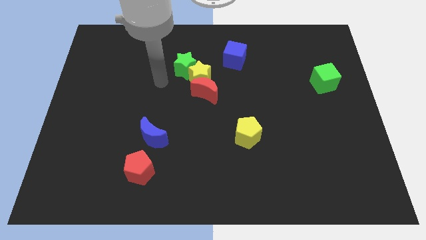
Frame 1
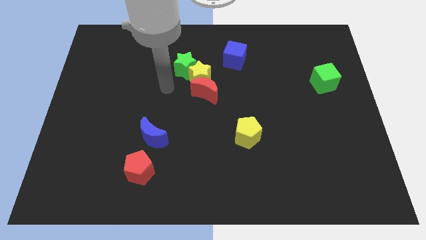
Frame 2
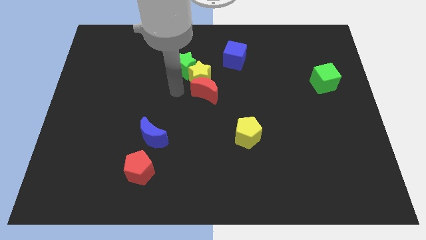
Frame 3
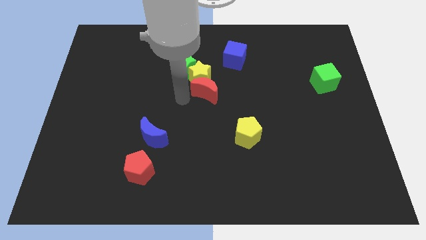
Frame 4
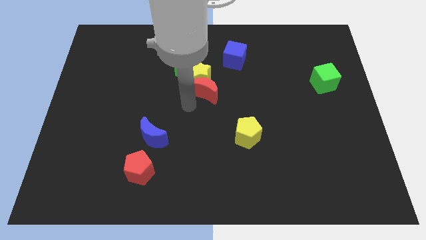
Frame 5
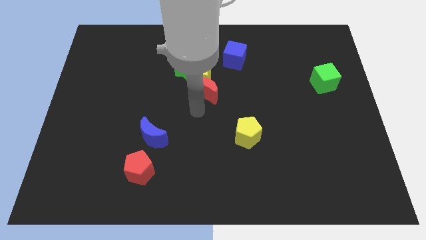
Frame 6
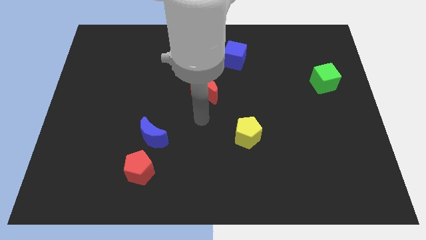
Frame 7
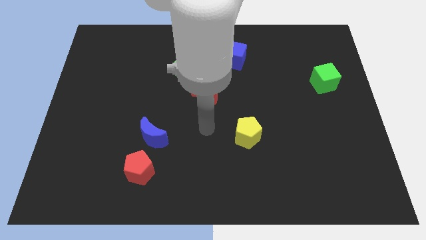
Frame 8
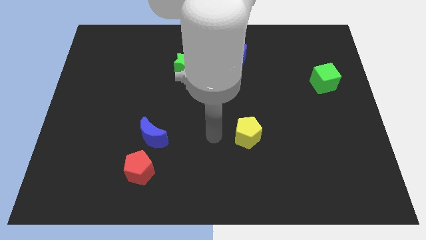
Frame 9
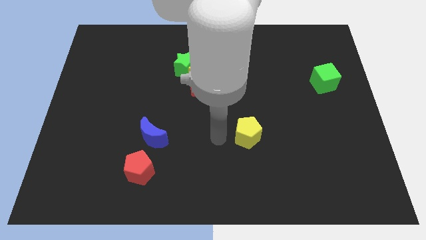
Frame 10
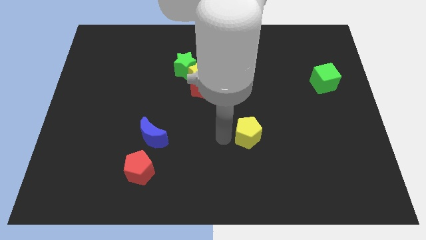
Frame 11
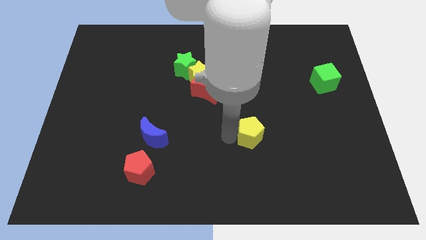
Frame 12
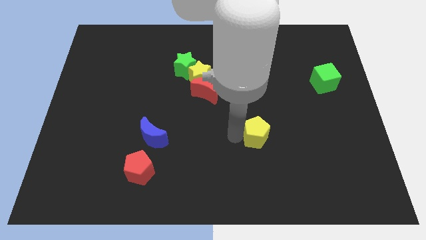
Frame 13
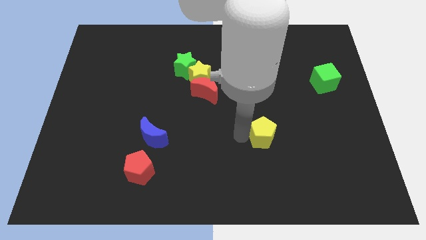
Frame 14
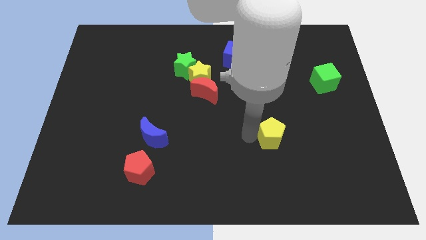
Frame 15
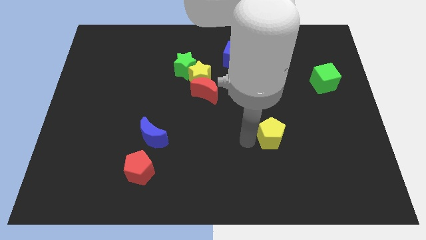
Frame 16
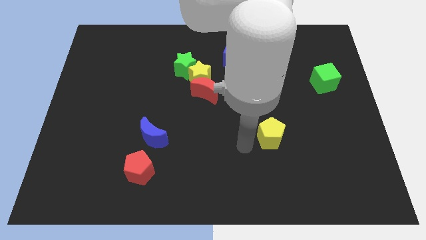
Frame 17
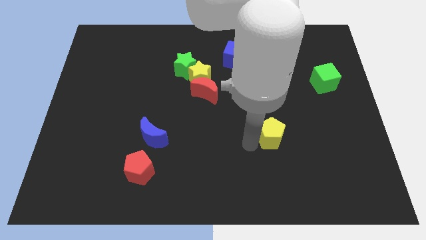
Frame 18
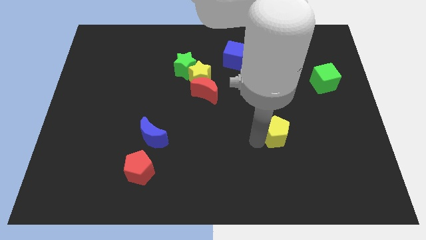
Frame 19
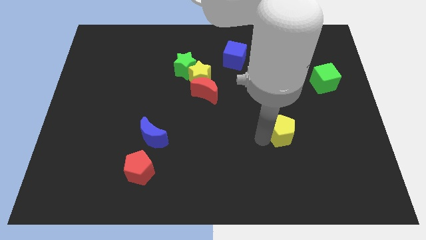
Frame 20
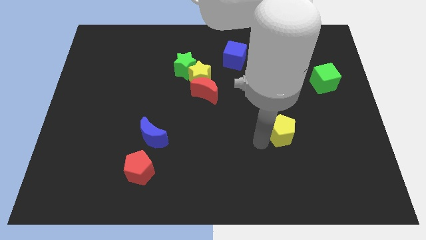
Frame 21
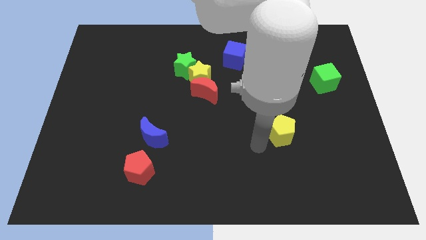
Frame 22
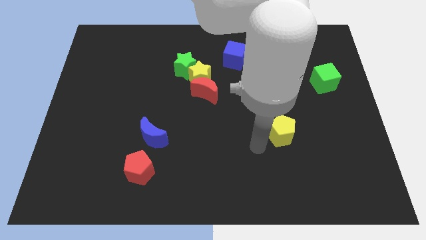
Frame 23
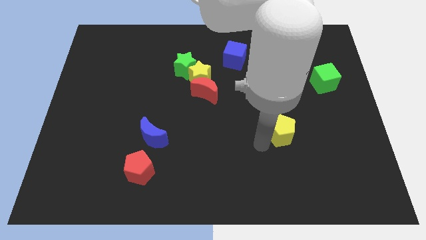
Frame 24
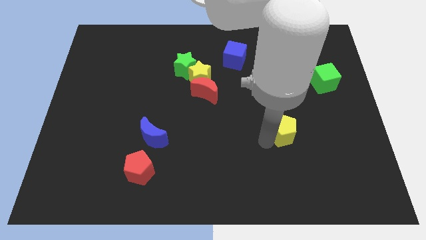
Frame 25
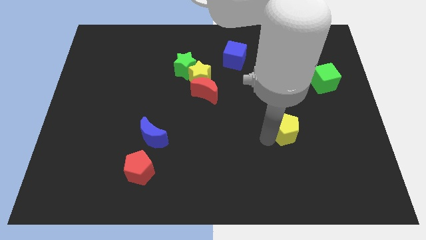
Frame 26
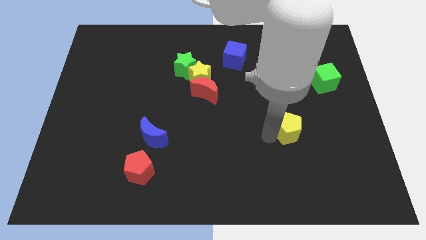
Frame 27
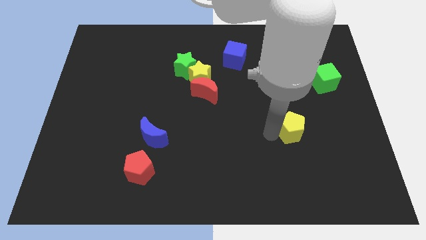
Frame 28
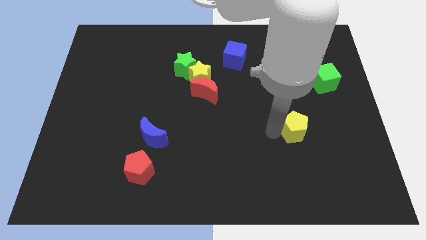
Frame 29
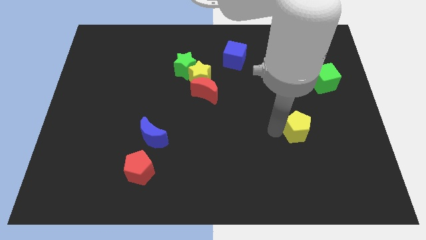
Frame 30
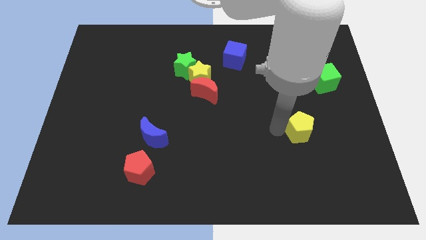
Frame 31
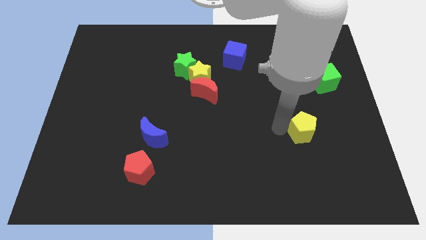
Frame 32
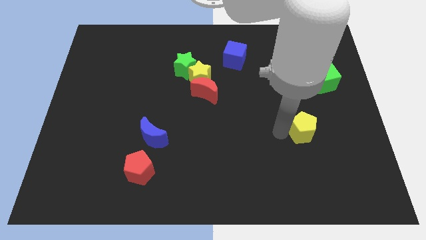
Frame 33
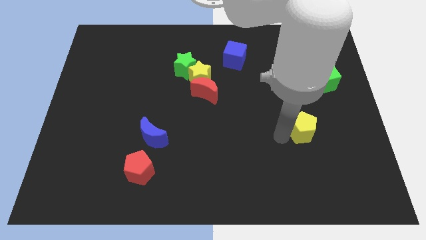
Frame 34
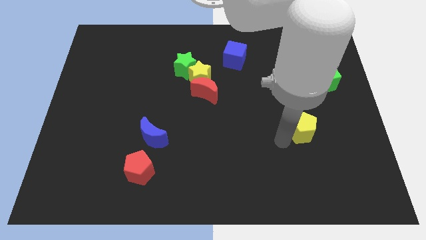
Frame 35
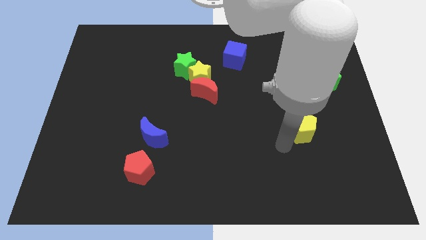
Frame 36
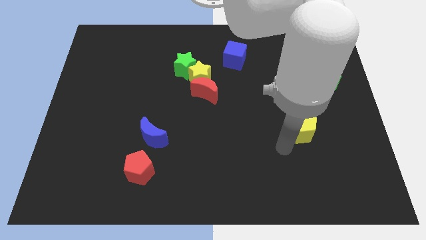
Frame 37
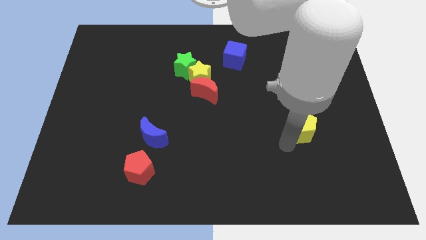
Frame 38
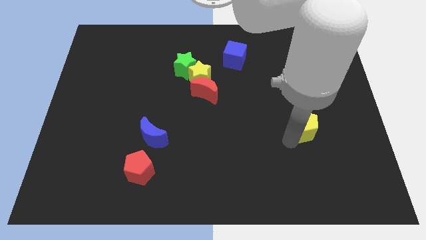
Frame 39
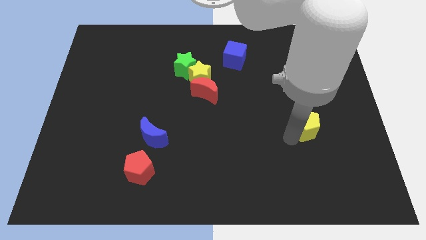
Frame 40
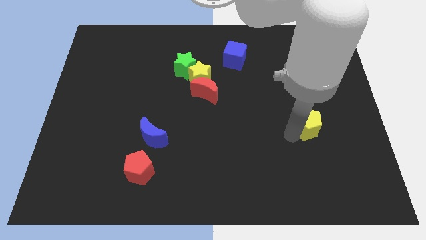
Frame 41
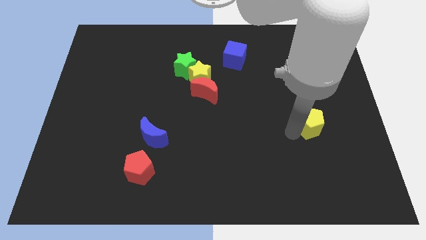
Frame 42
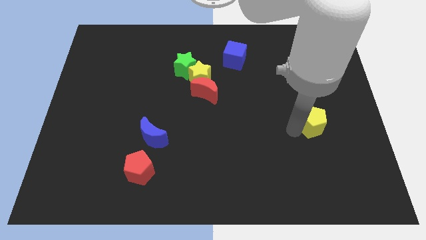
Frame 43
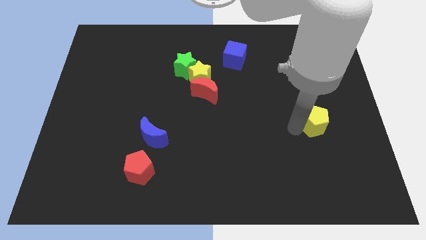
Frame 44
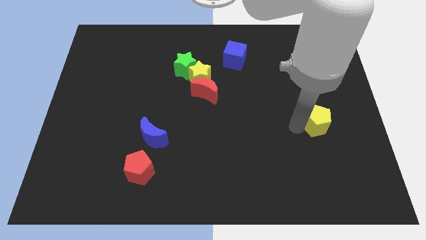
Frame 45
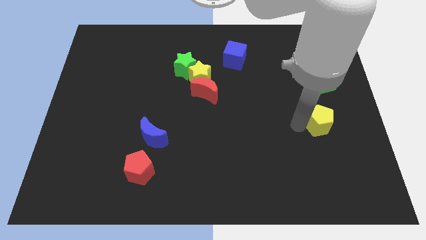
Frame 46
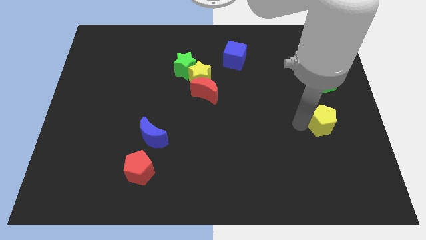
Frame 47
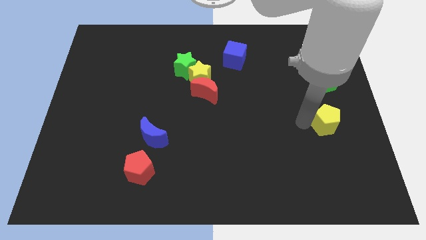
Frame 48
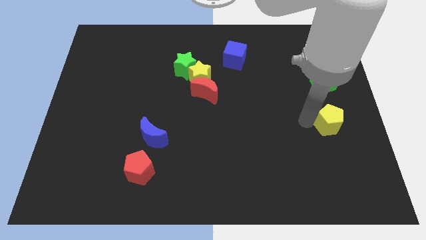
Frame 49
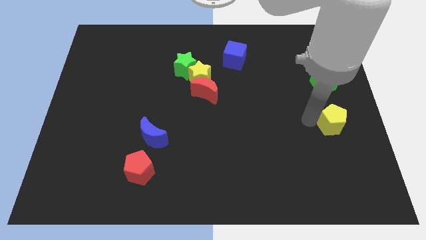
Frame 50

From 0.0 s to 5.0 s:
push the yellow pentagon to the right side of the board

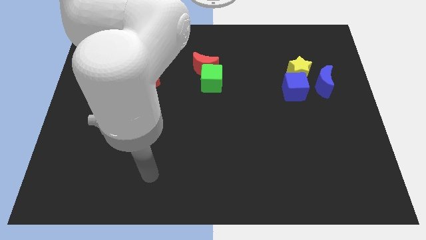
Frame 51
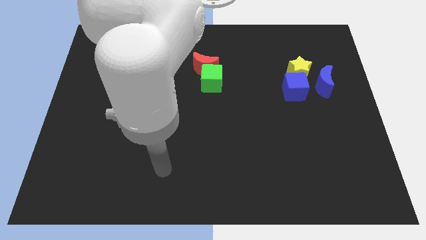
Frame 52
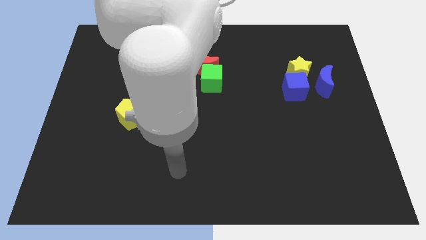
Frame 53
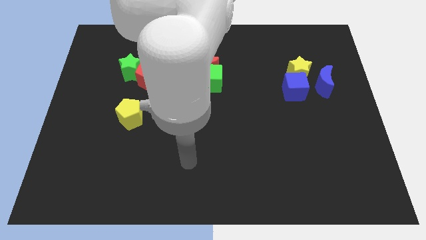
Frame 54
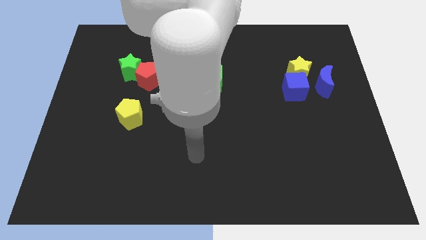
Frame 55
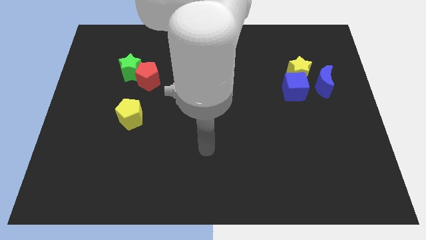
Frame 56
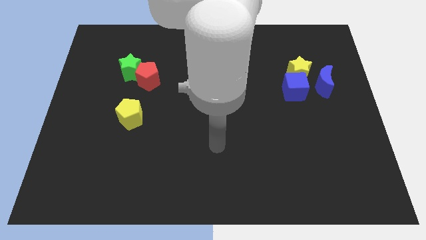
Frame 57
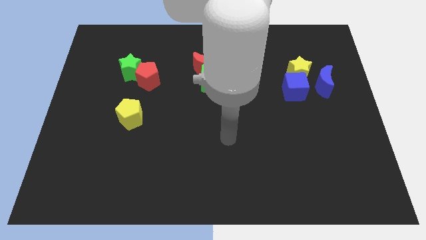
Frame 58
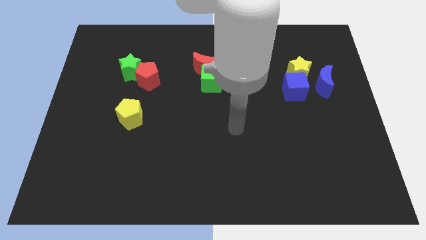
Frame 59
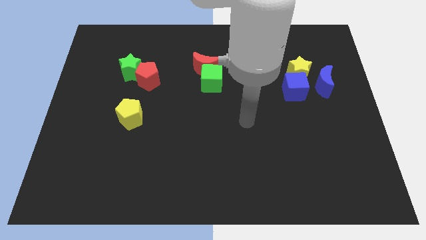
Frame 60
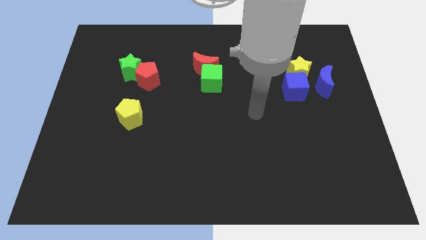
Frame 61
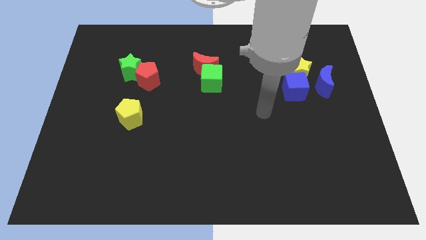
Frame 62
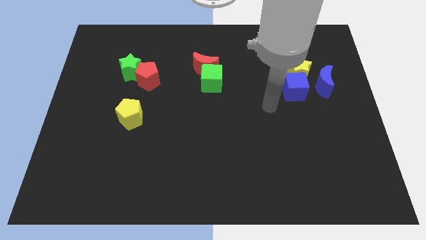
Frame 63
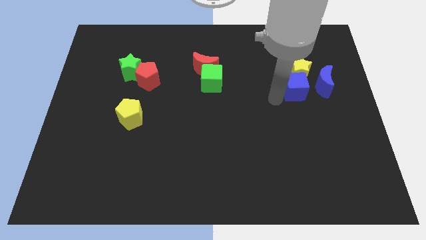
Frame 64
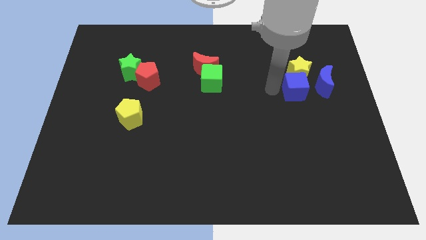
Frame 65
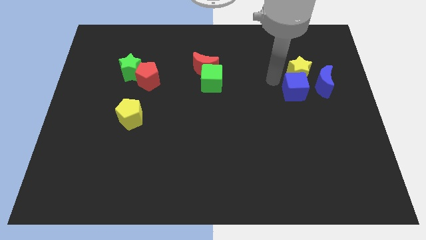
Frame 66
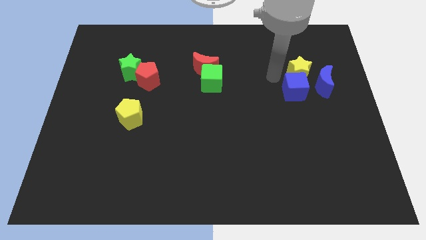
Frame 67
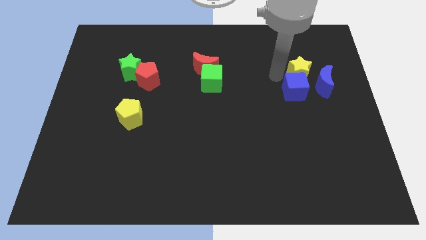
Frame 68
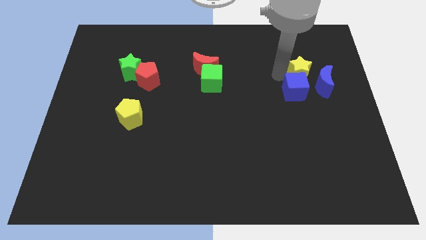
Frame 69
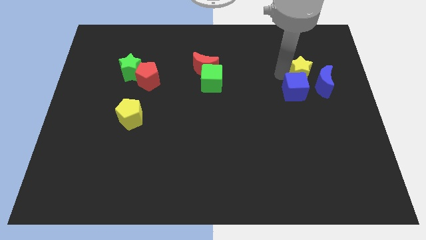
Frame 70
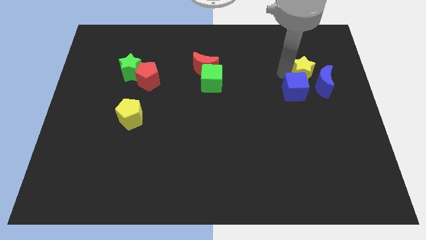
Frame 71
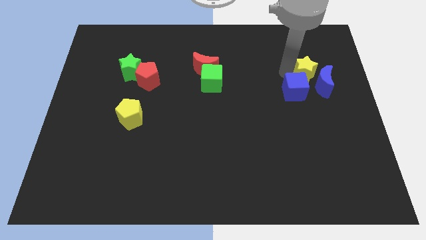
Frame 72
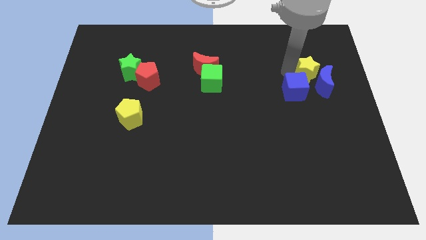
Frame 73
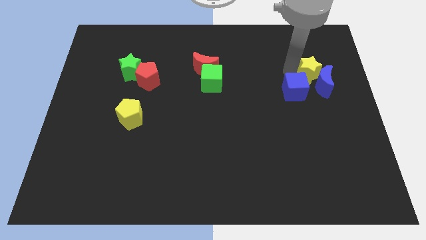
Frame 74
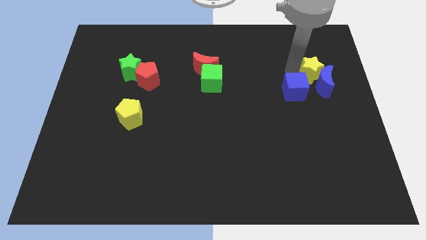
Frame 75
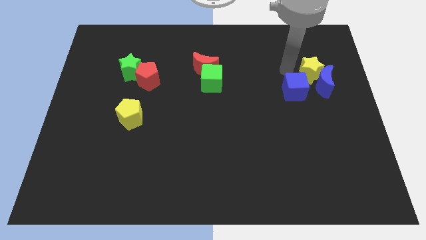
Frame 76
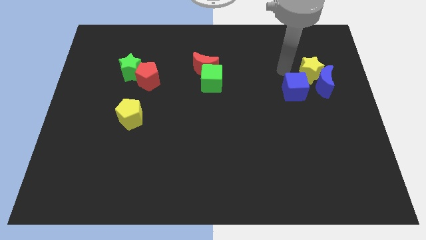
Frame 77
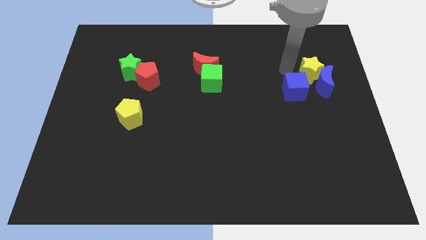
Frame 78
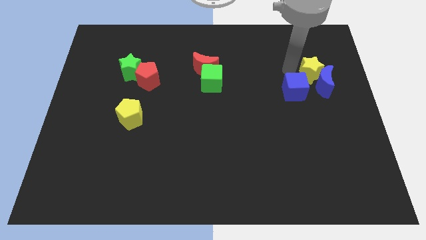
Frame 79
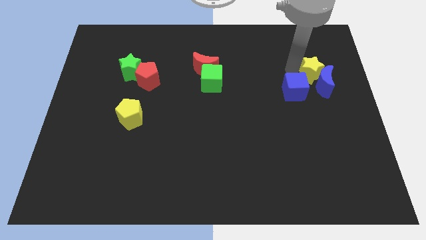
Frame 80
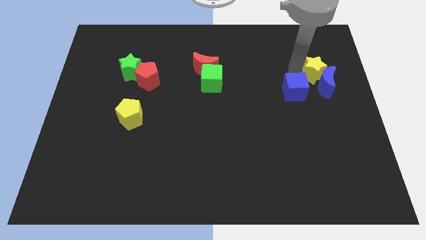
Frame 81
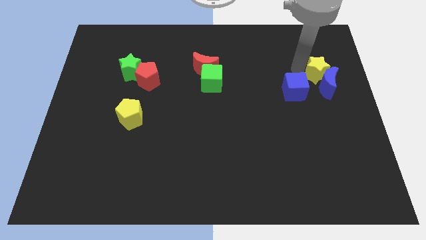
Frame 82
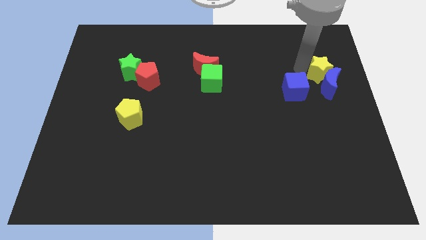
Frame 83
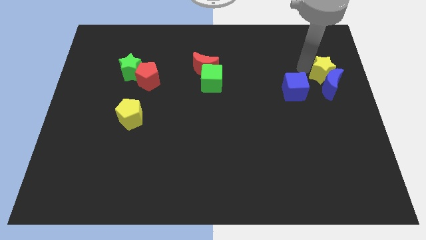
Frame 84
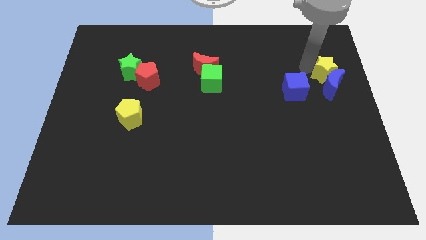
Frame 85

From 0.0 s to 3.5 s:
slide the yellow star to the right side
